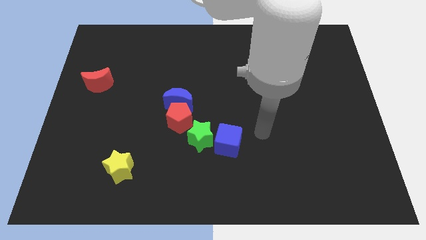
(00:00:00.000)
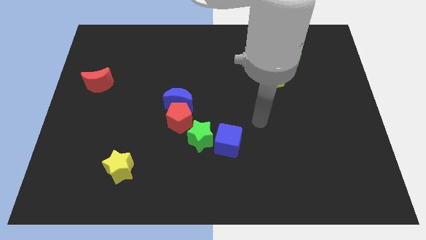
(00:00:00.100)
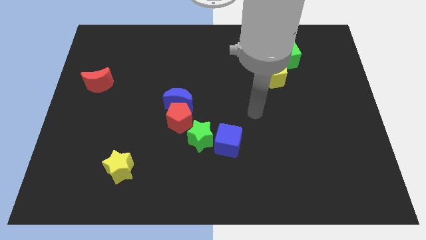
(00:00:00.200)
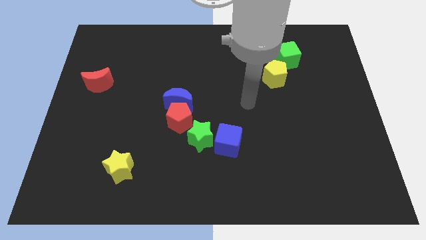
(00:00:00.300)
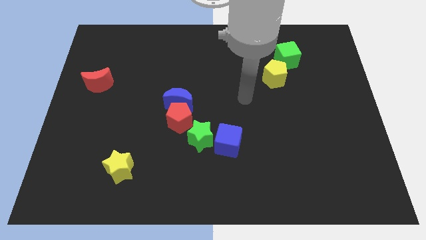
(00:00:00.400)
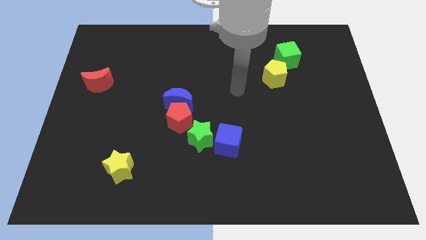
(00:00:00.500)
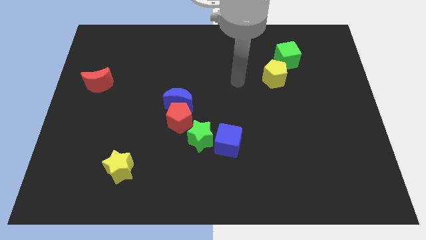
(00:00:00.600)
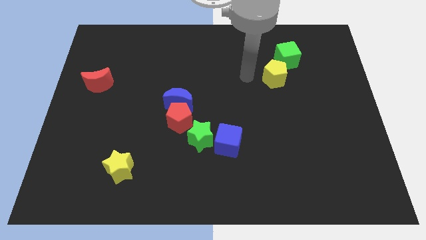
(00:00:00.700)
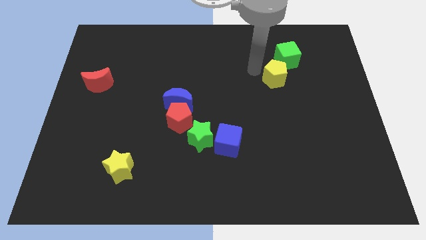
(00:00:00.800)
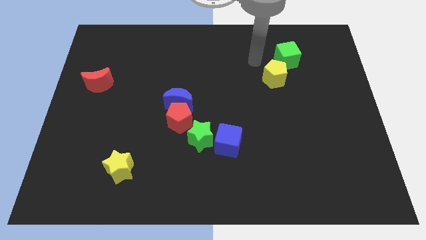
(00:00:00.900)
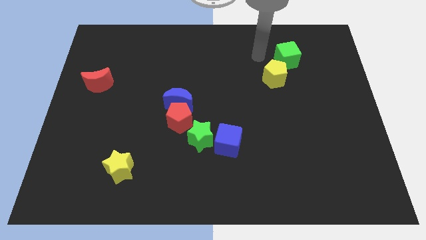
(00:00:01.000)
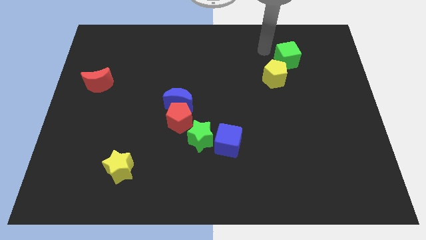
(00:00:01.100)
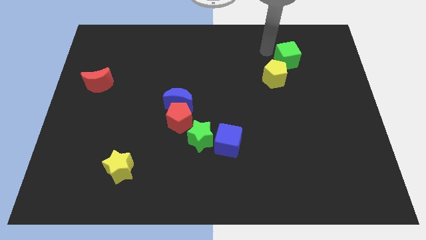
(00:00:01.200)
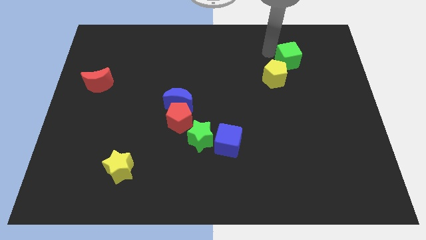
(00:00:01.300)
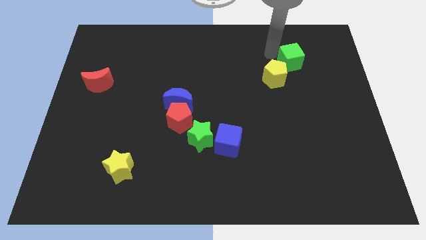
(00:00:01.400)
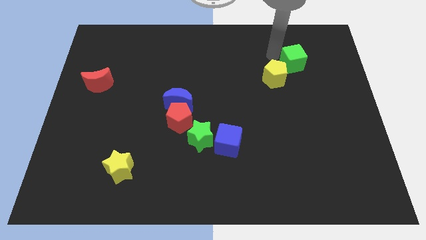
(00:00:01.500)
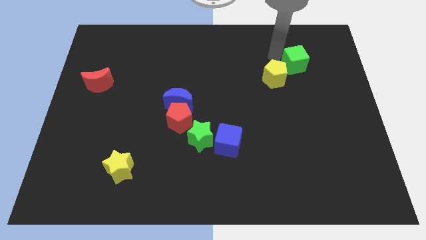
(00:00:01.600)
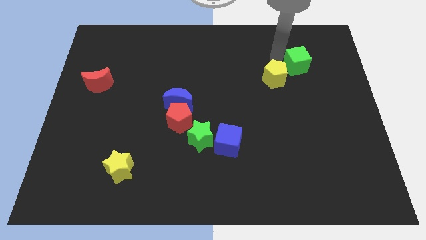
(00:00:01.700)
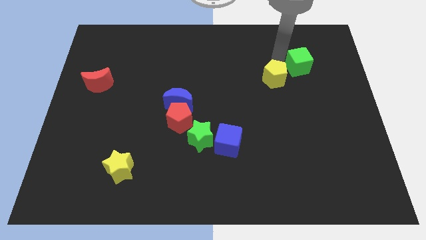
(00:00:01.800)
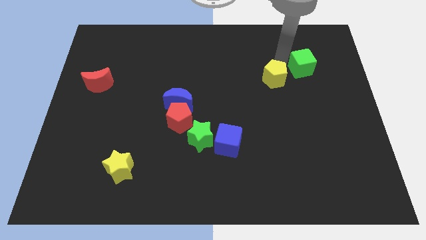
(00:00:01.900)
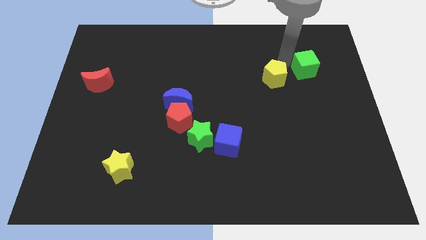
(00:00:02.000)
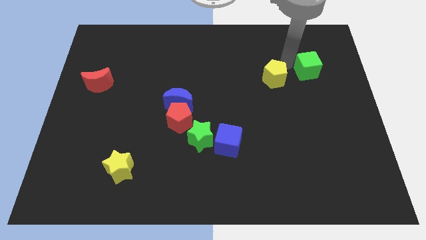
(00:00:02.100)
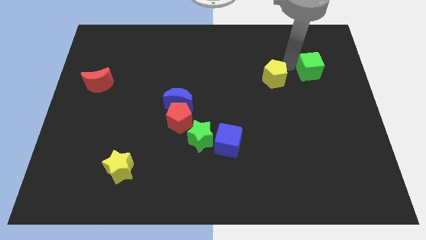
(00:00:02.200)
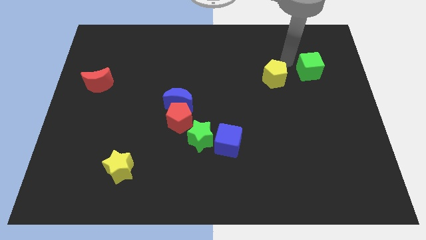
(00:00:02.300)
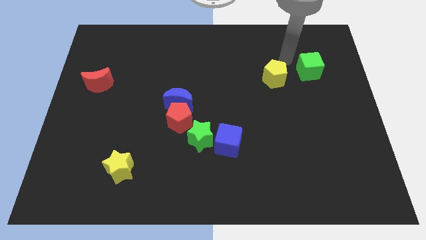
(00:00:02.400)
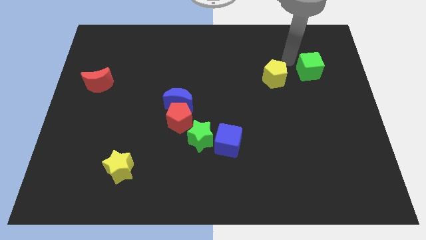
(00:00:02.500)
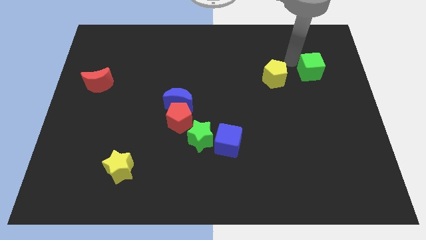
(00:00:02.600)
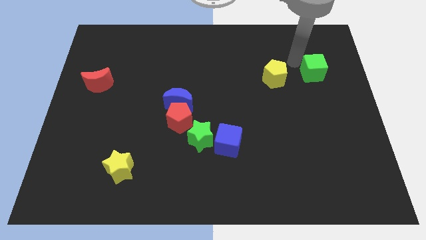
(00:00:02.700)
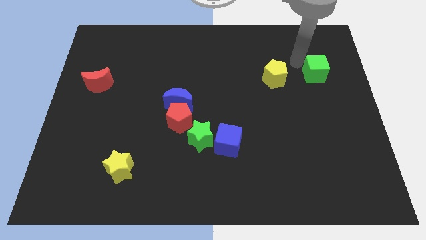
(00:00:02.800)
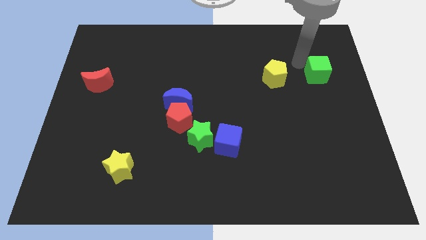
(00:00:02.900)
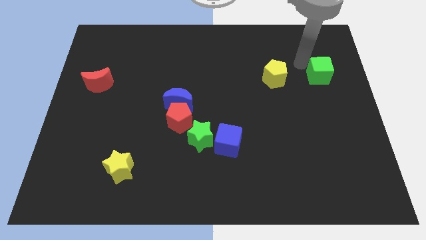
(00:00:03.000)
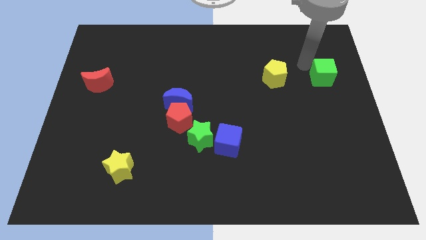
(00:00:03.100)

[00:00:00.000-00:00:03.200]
push the green cube to the right side

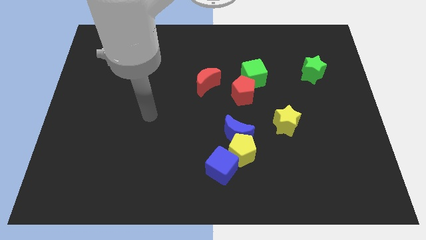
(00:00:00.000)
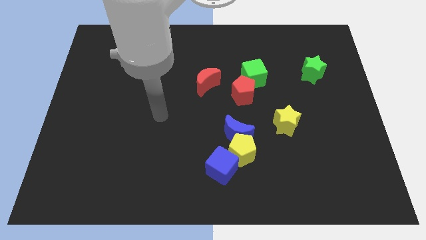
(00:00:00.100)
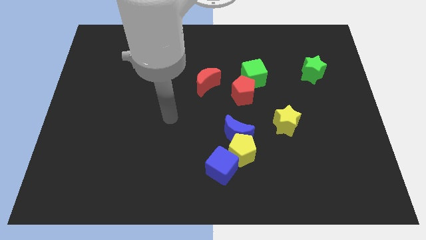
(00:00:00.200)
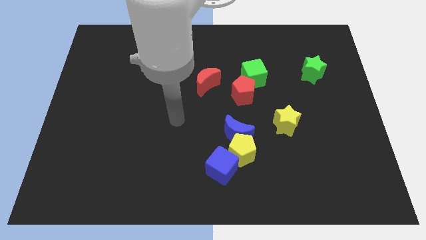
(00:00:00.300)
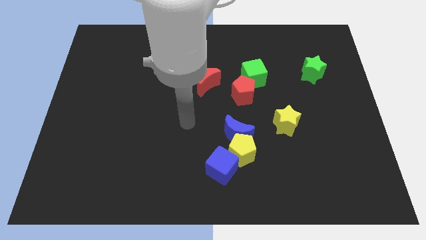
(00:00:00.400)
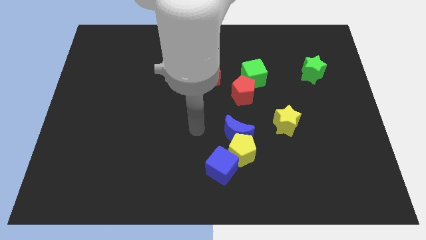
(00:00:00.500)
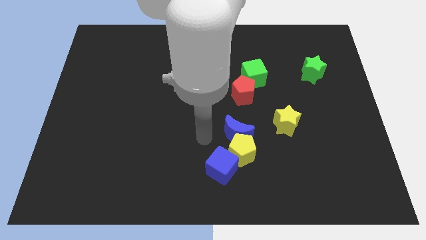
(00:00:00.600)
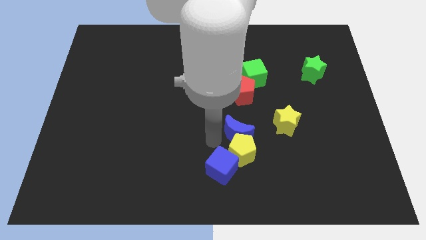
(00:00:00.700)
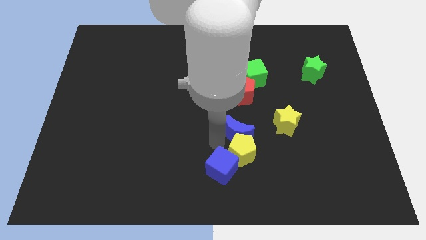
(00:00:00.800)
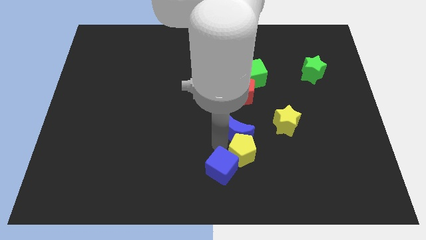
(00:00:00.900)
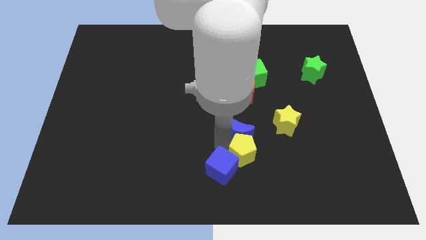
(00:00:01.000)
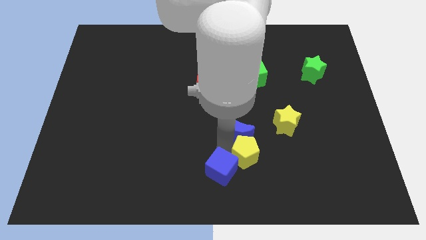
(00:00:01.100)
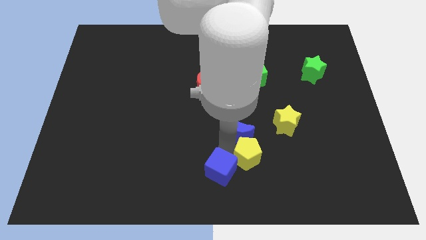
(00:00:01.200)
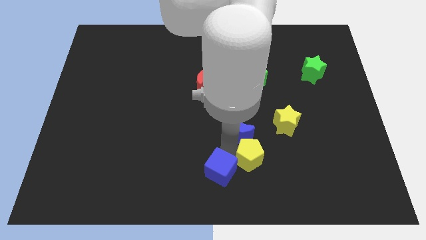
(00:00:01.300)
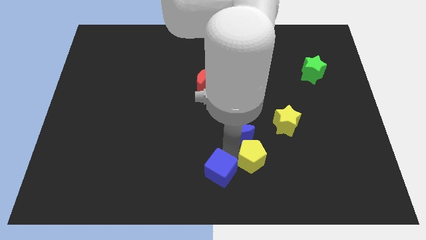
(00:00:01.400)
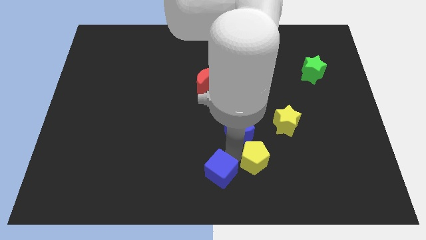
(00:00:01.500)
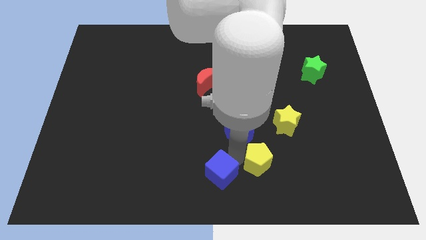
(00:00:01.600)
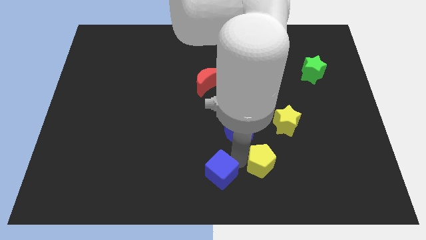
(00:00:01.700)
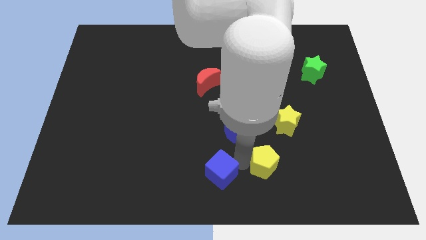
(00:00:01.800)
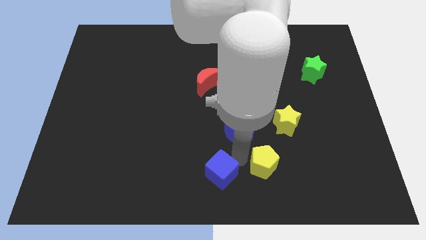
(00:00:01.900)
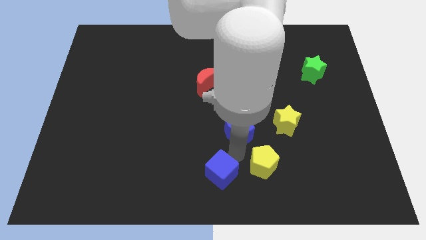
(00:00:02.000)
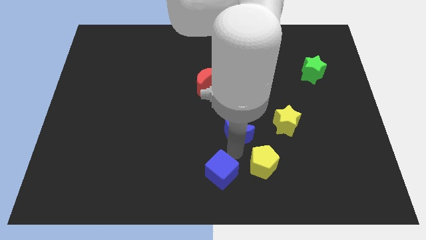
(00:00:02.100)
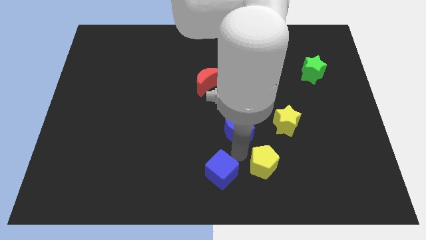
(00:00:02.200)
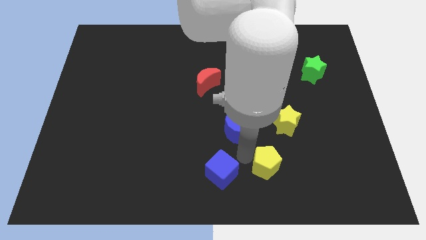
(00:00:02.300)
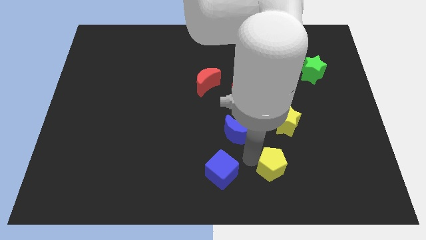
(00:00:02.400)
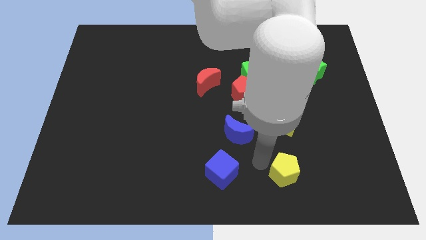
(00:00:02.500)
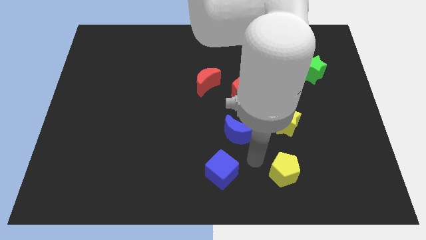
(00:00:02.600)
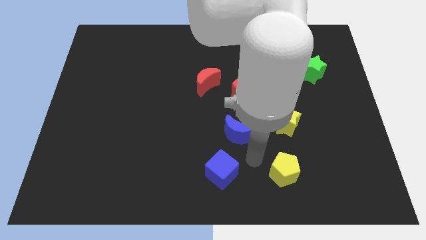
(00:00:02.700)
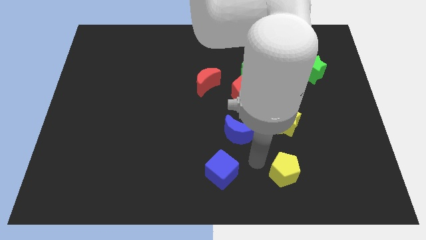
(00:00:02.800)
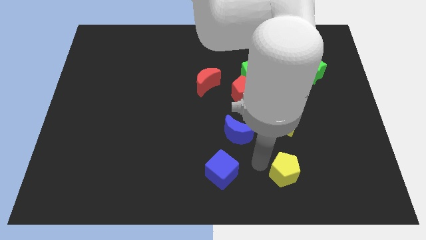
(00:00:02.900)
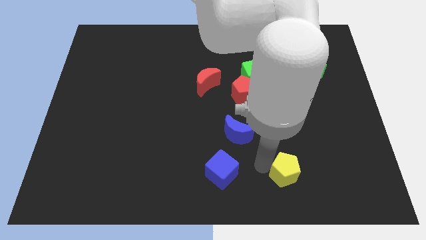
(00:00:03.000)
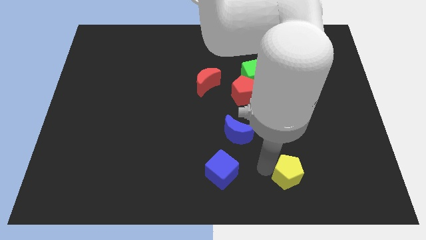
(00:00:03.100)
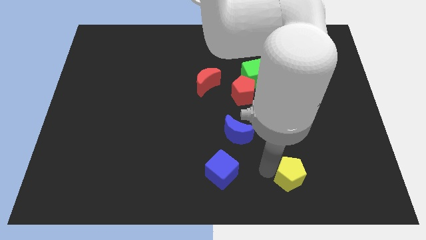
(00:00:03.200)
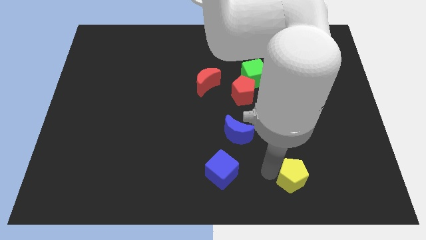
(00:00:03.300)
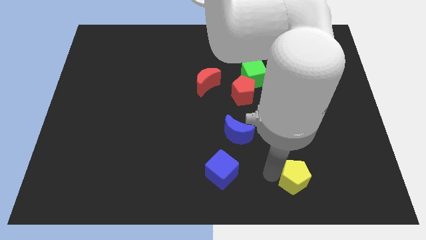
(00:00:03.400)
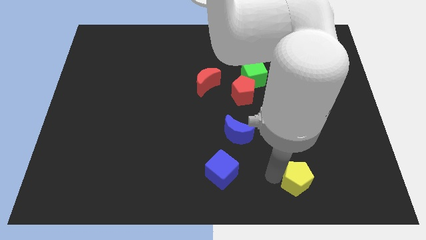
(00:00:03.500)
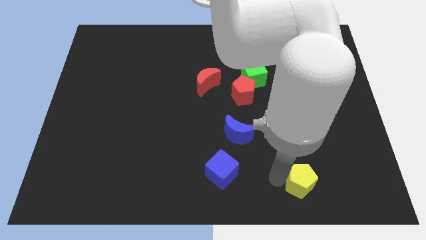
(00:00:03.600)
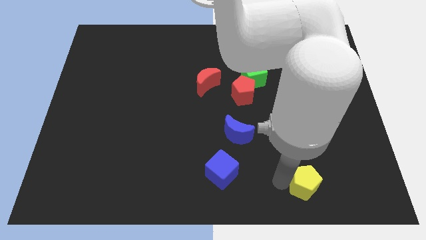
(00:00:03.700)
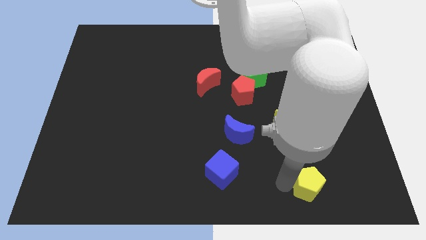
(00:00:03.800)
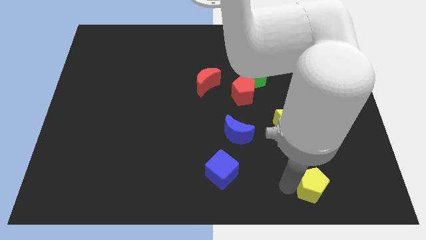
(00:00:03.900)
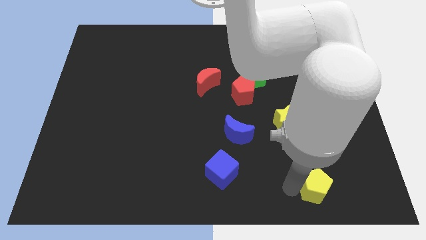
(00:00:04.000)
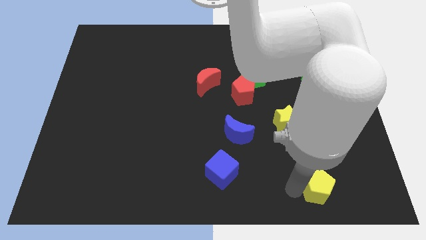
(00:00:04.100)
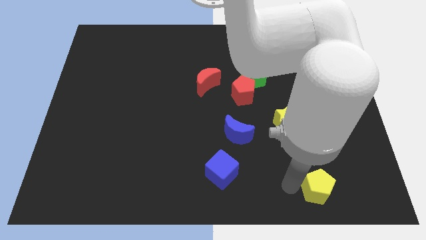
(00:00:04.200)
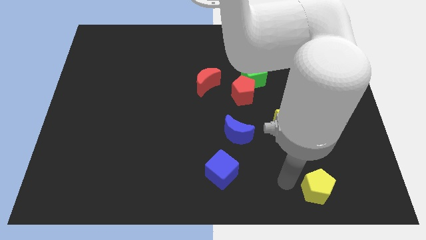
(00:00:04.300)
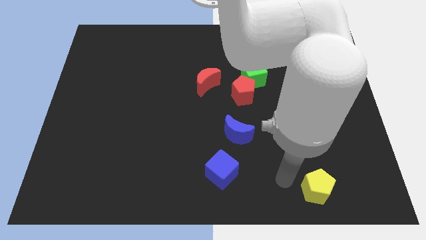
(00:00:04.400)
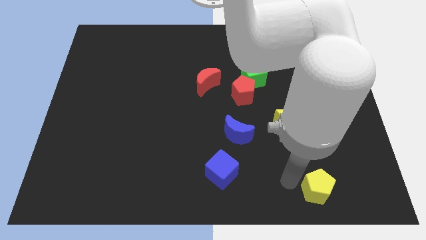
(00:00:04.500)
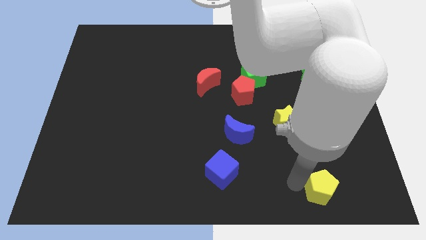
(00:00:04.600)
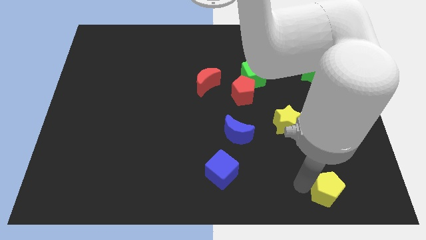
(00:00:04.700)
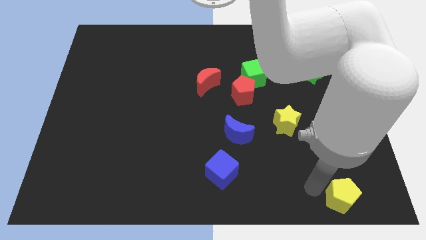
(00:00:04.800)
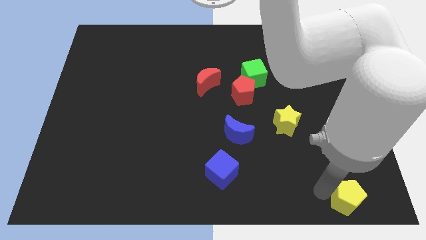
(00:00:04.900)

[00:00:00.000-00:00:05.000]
slide the yellow pentagon to the bottom right corner
